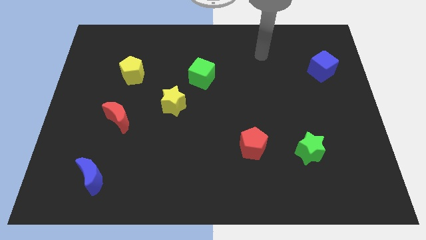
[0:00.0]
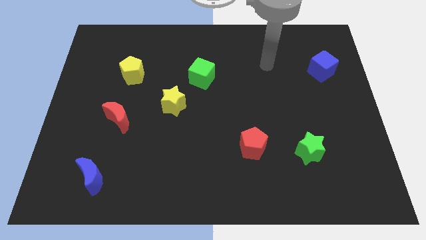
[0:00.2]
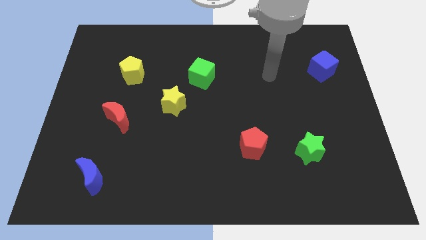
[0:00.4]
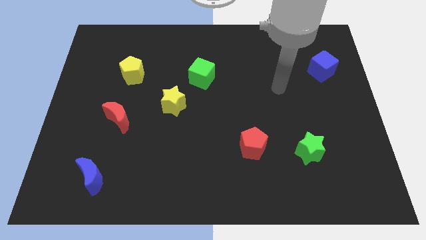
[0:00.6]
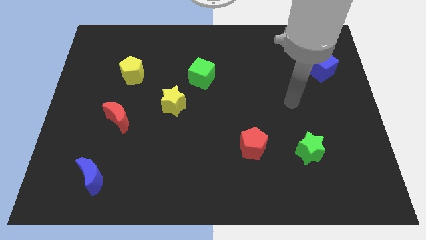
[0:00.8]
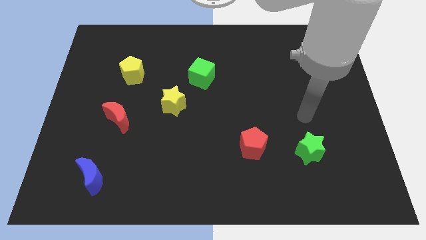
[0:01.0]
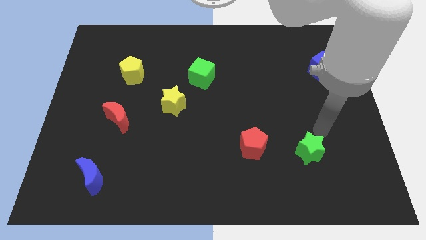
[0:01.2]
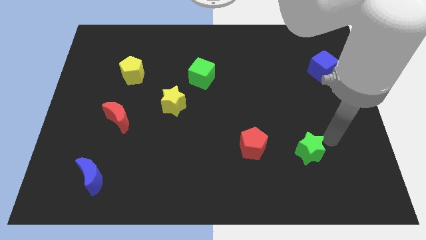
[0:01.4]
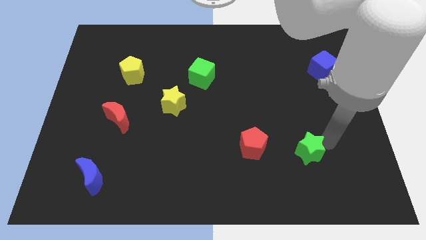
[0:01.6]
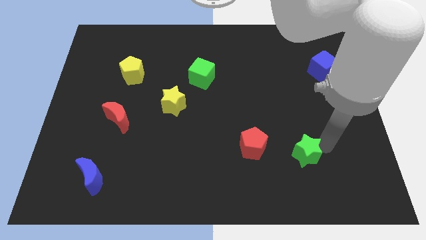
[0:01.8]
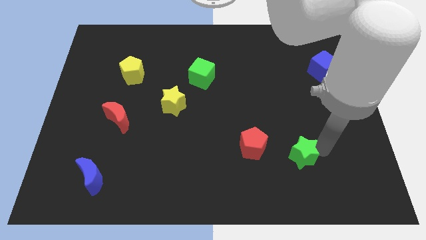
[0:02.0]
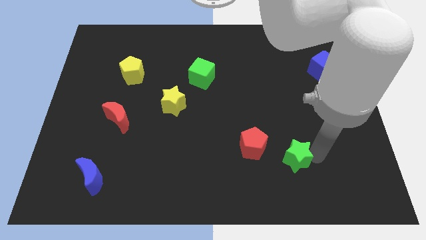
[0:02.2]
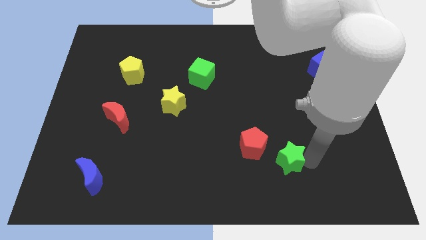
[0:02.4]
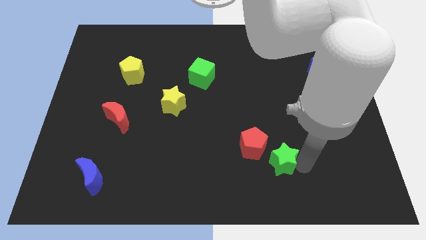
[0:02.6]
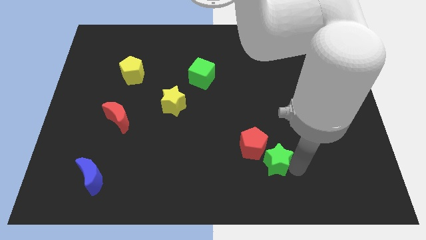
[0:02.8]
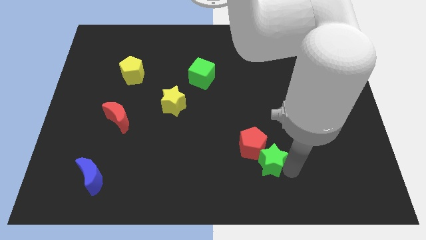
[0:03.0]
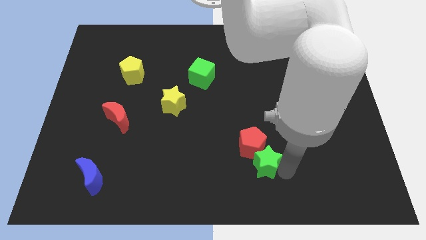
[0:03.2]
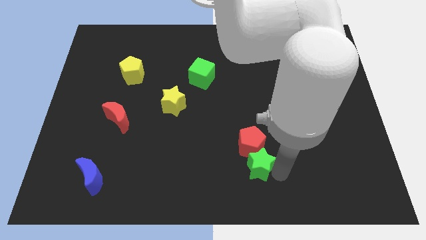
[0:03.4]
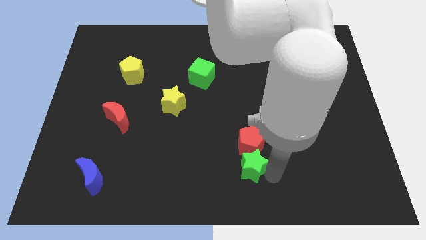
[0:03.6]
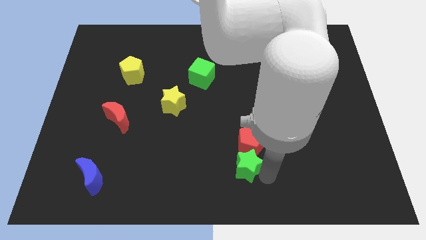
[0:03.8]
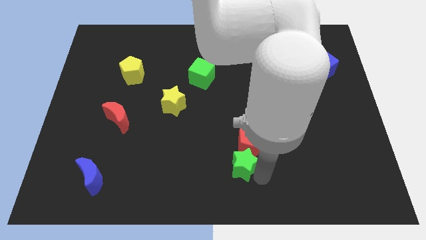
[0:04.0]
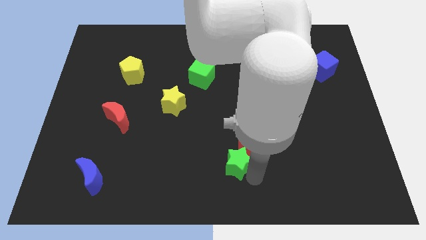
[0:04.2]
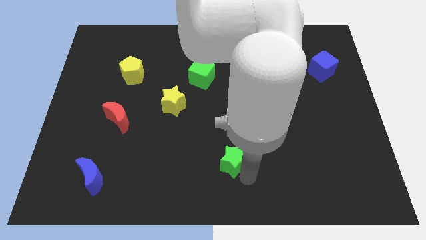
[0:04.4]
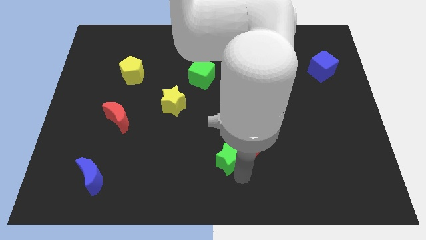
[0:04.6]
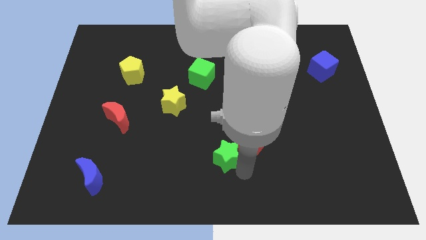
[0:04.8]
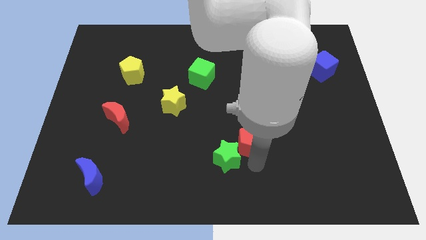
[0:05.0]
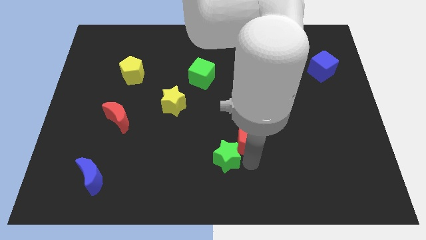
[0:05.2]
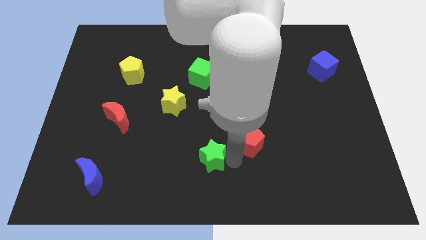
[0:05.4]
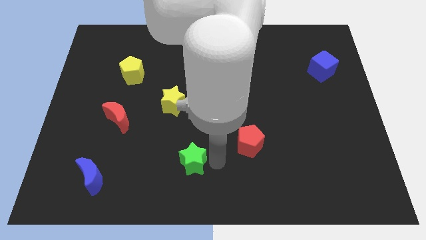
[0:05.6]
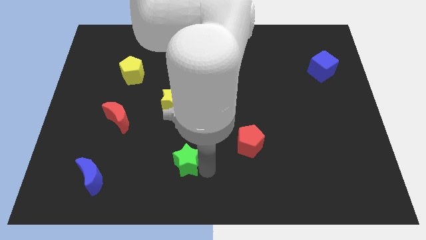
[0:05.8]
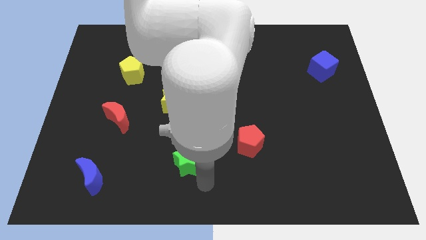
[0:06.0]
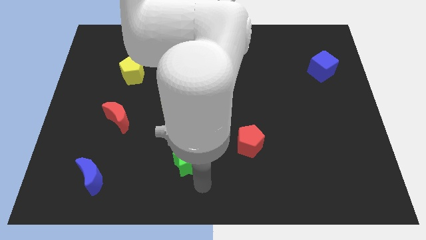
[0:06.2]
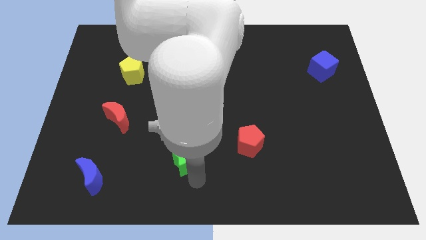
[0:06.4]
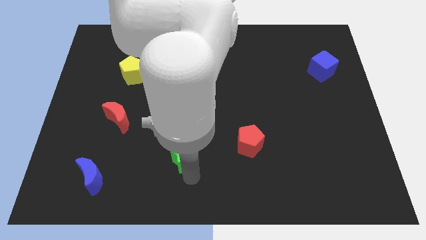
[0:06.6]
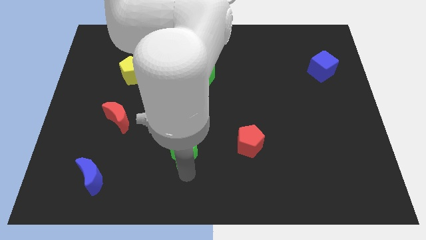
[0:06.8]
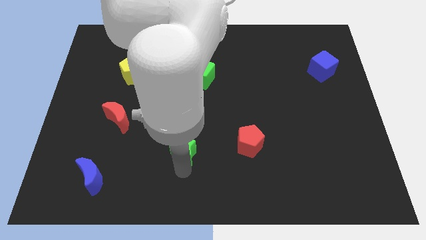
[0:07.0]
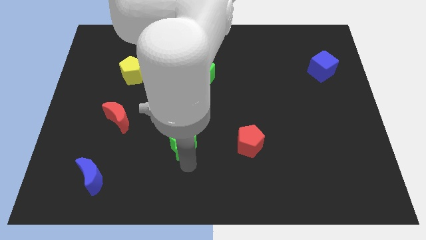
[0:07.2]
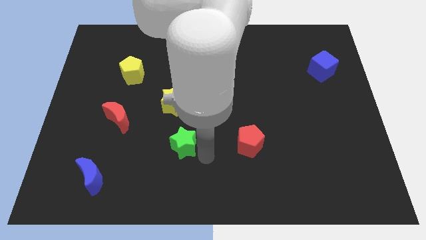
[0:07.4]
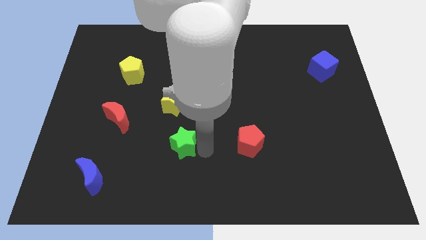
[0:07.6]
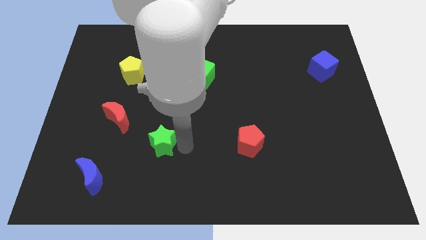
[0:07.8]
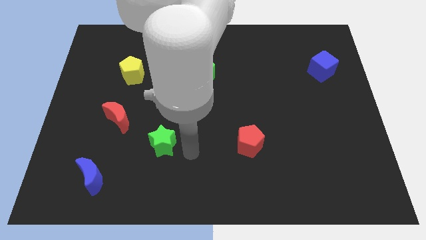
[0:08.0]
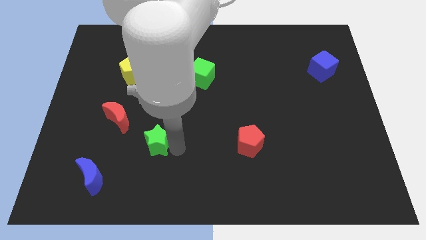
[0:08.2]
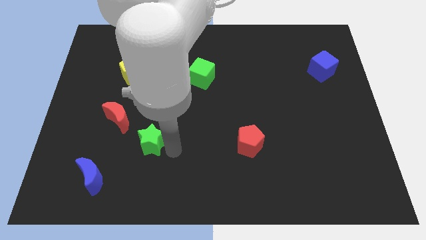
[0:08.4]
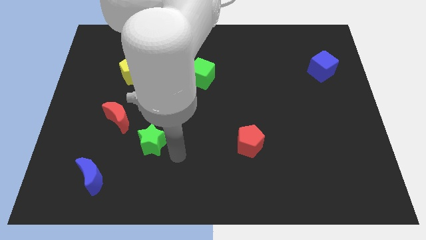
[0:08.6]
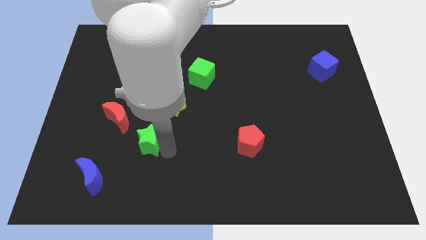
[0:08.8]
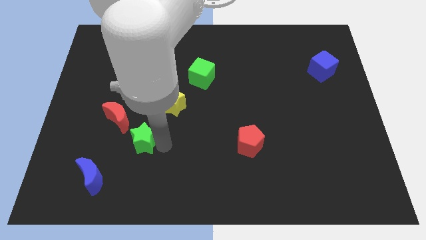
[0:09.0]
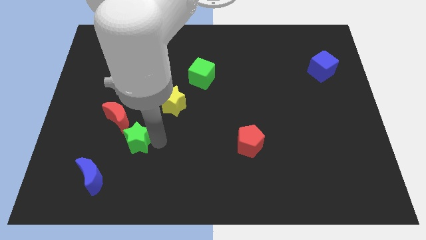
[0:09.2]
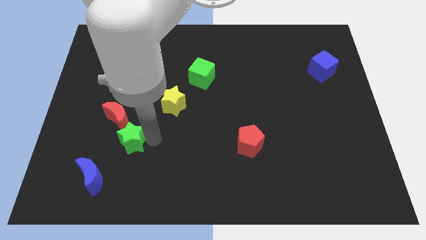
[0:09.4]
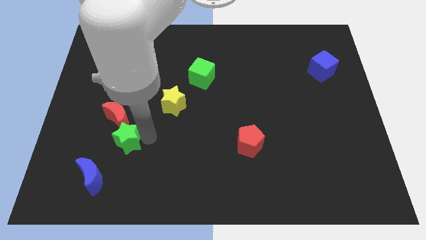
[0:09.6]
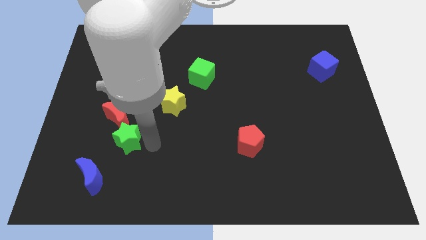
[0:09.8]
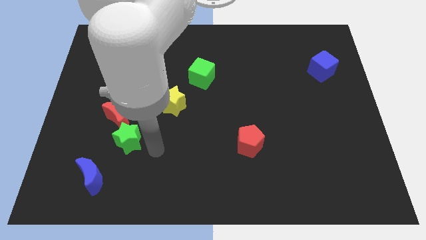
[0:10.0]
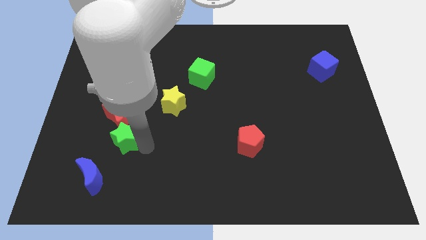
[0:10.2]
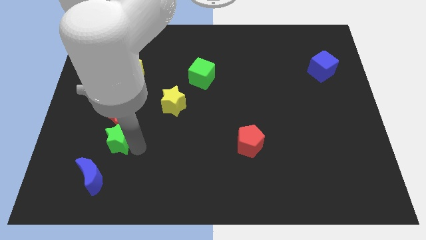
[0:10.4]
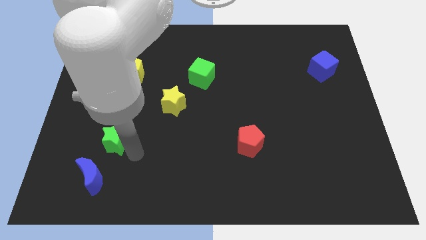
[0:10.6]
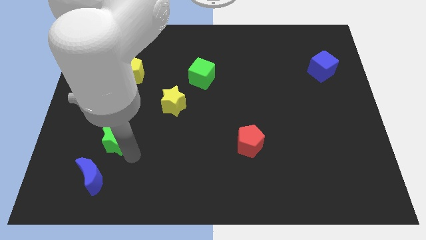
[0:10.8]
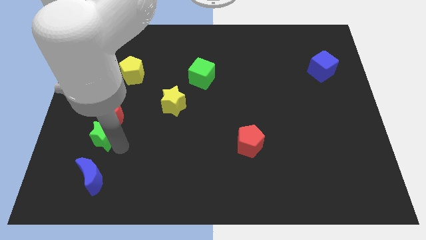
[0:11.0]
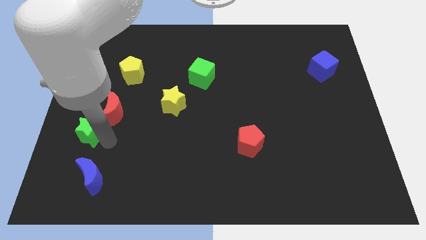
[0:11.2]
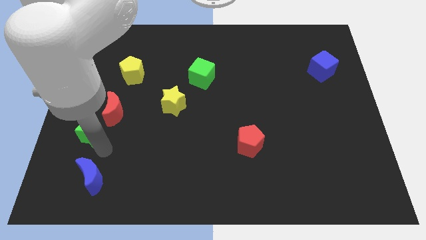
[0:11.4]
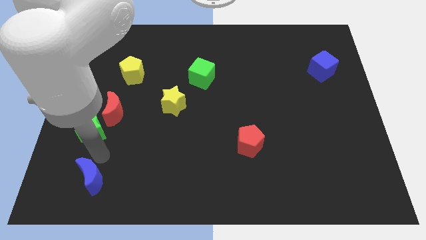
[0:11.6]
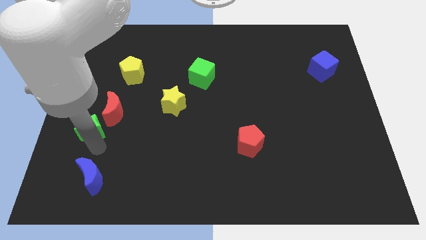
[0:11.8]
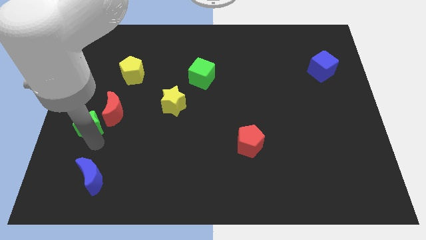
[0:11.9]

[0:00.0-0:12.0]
slide the green star to the left side of the board

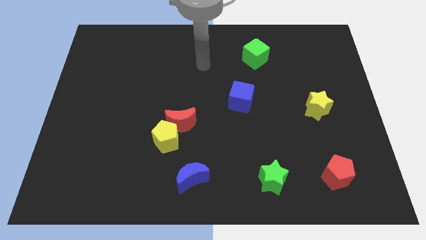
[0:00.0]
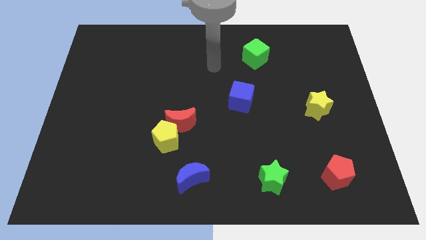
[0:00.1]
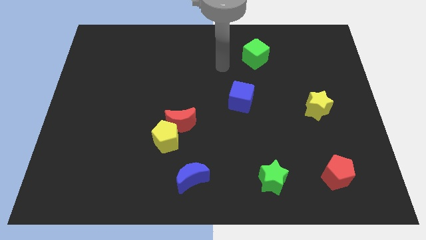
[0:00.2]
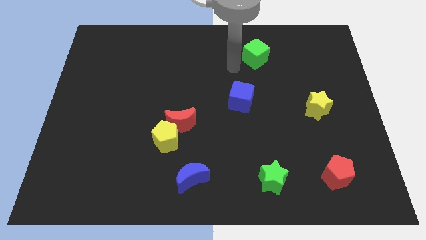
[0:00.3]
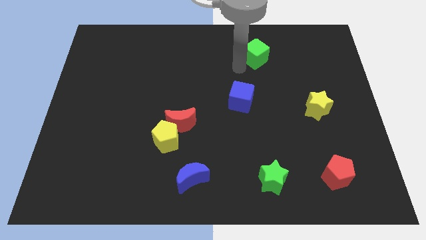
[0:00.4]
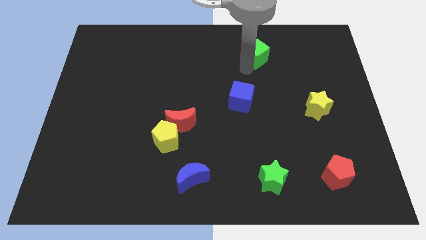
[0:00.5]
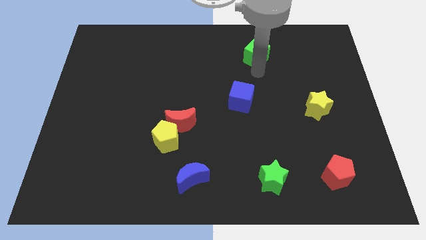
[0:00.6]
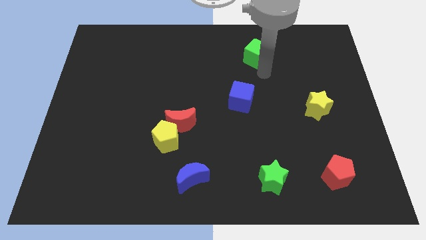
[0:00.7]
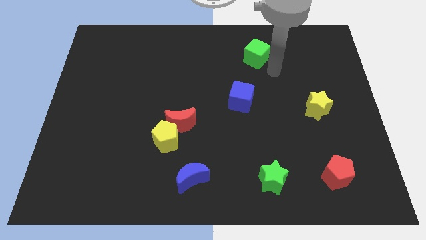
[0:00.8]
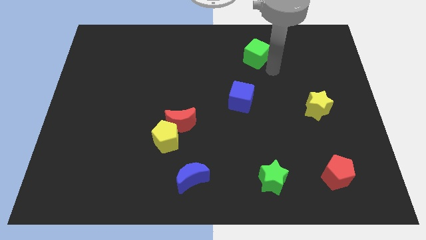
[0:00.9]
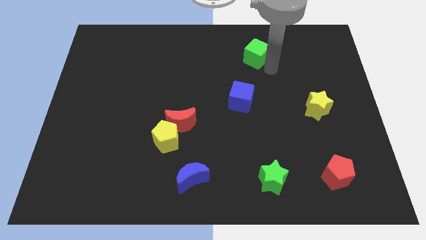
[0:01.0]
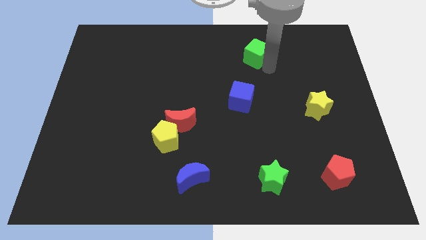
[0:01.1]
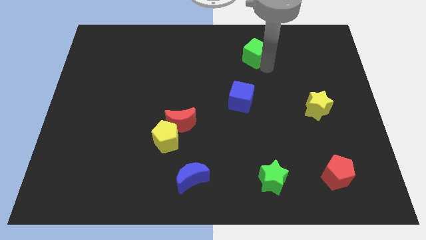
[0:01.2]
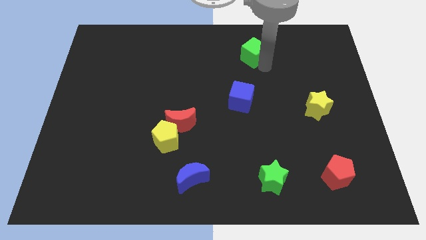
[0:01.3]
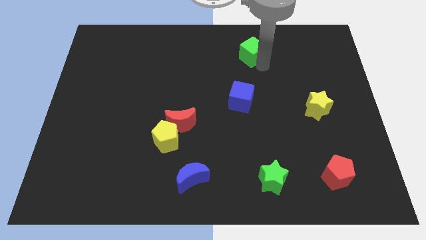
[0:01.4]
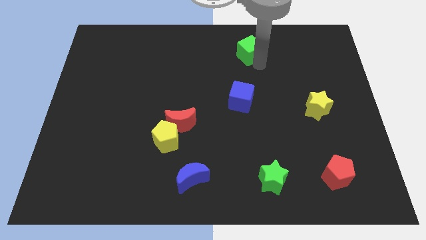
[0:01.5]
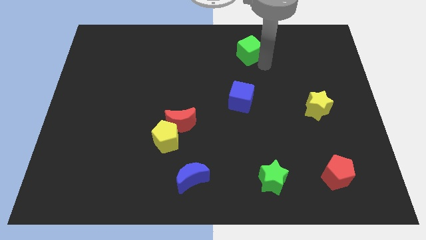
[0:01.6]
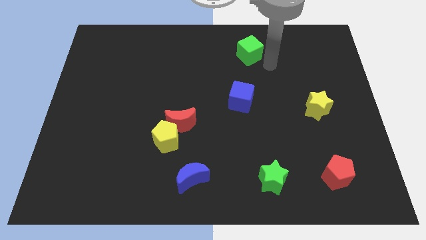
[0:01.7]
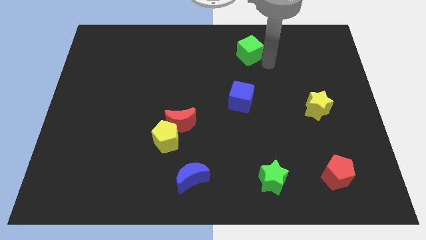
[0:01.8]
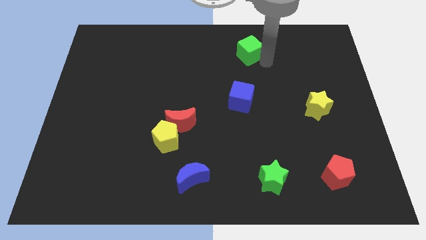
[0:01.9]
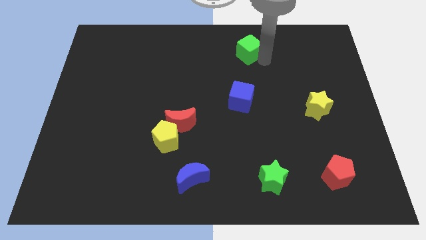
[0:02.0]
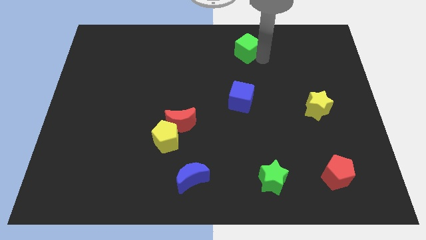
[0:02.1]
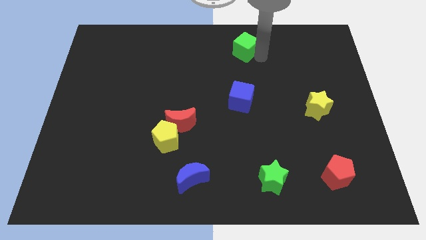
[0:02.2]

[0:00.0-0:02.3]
put the green cube to the towards your base
